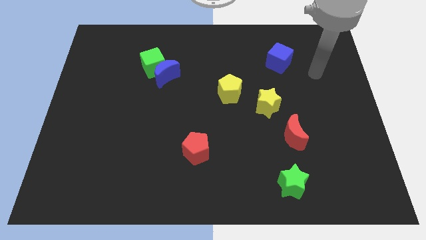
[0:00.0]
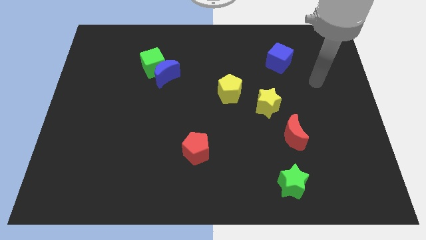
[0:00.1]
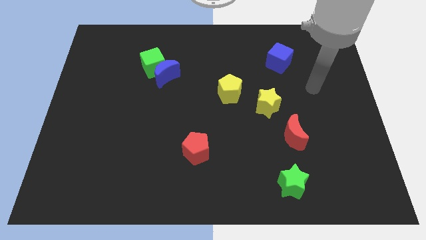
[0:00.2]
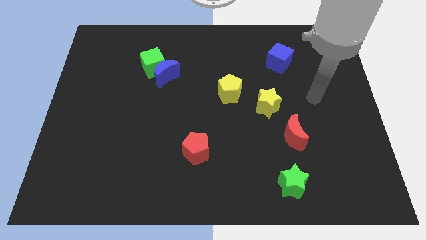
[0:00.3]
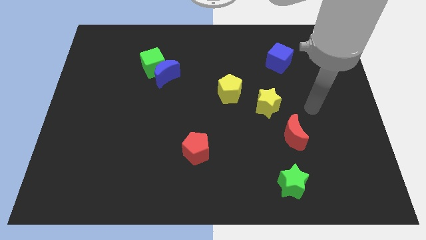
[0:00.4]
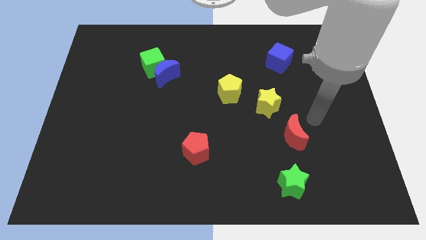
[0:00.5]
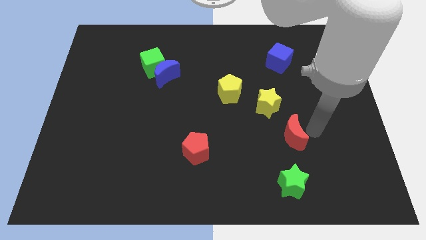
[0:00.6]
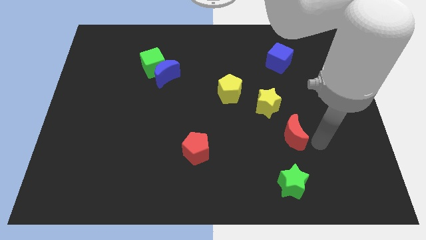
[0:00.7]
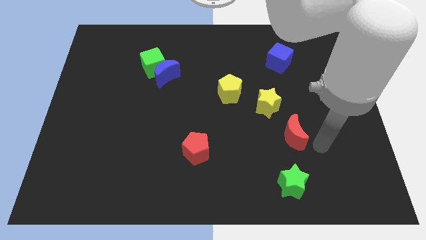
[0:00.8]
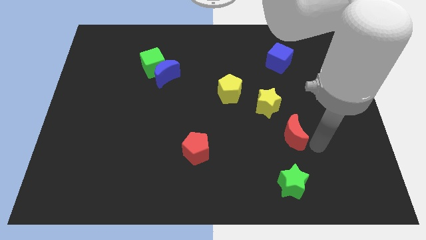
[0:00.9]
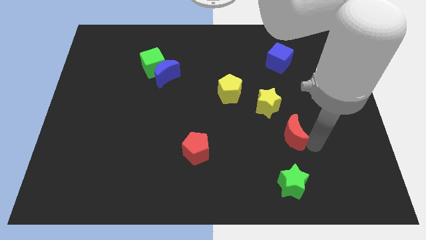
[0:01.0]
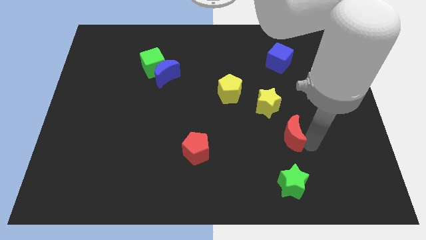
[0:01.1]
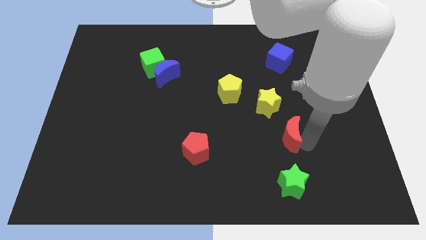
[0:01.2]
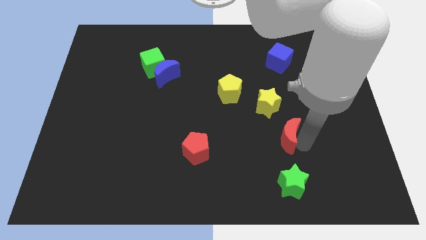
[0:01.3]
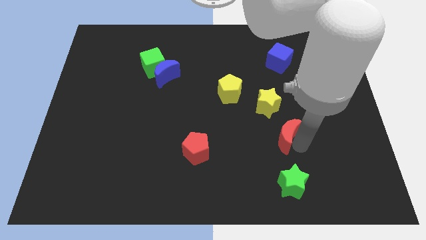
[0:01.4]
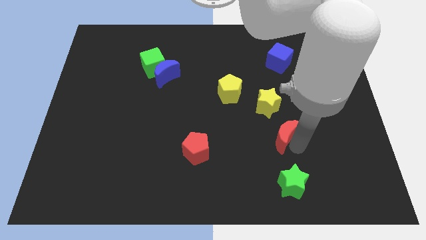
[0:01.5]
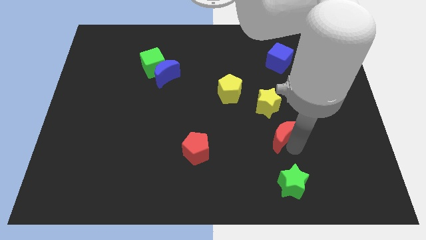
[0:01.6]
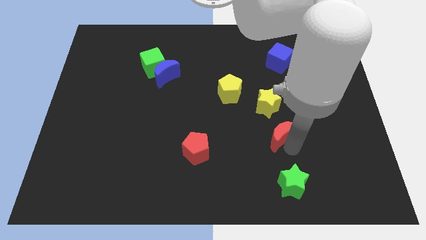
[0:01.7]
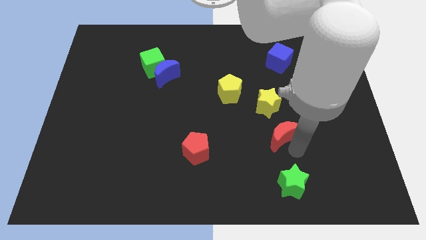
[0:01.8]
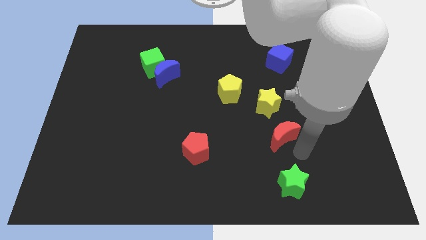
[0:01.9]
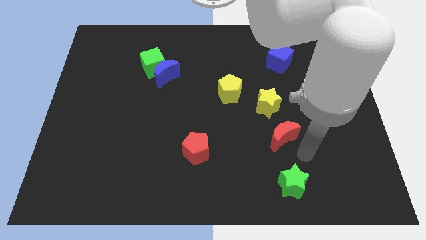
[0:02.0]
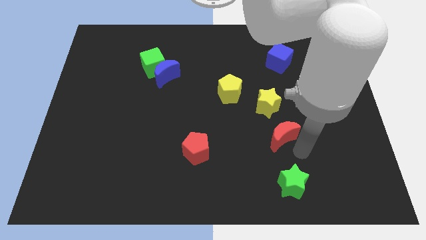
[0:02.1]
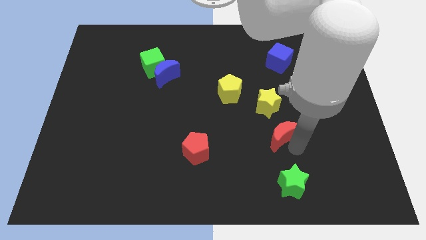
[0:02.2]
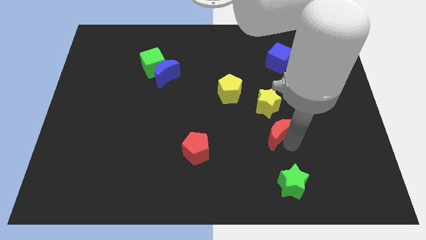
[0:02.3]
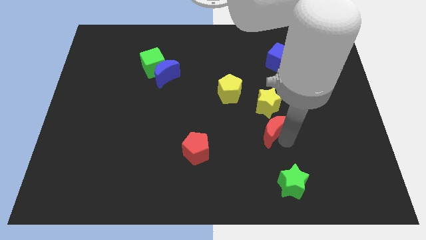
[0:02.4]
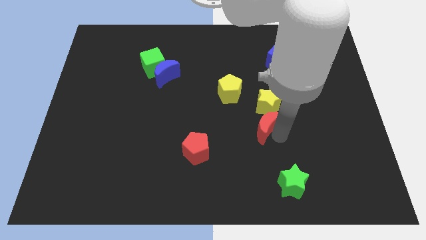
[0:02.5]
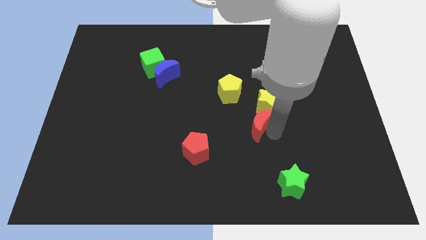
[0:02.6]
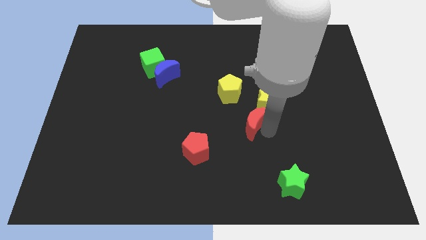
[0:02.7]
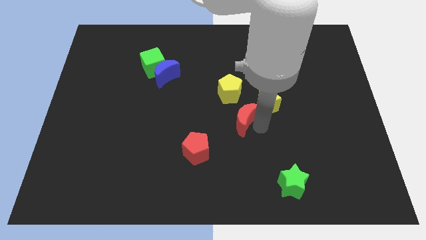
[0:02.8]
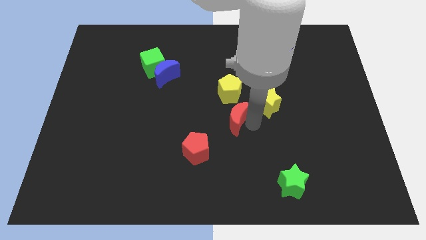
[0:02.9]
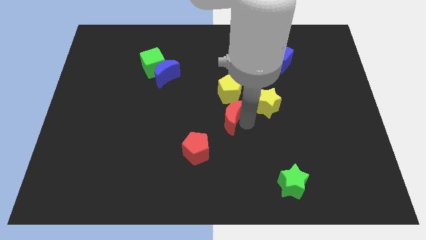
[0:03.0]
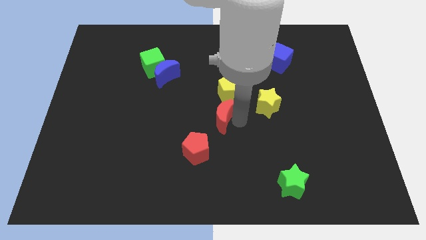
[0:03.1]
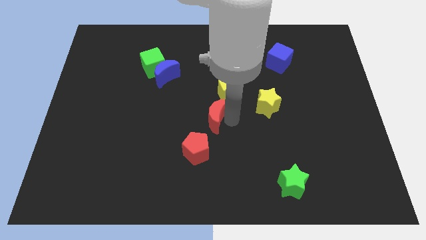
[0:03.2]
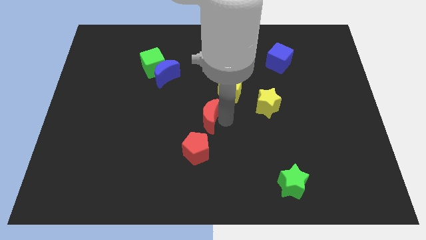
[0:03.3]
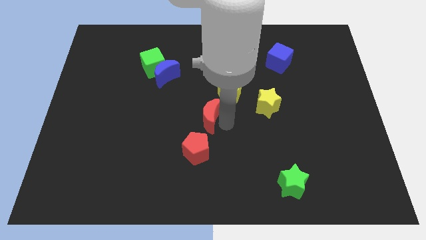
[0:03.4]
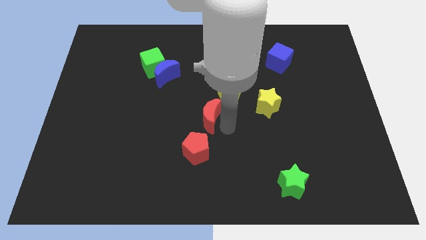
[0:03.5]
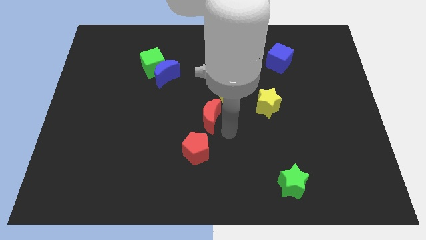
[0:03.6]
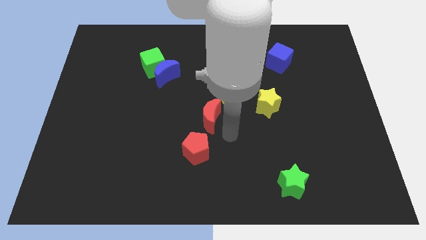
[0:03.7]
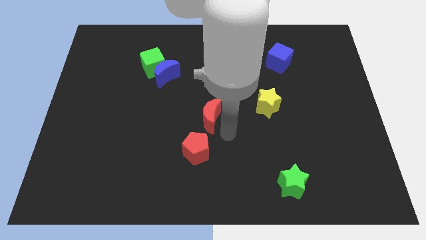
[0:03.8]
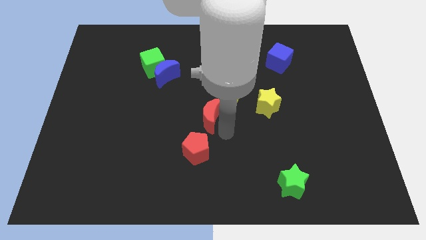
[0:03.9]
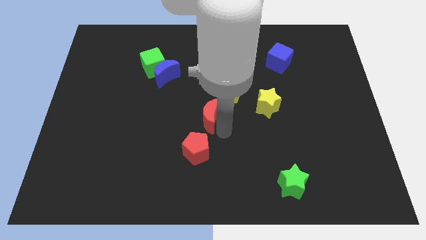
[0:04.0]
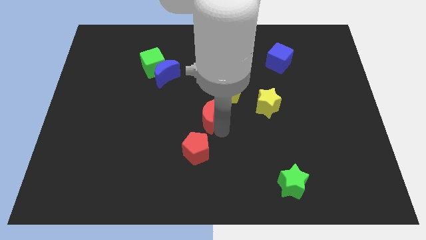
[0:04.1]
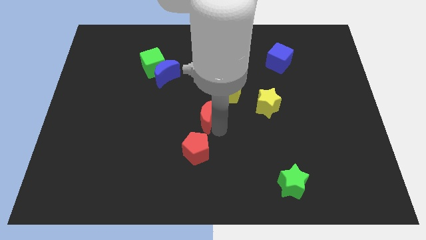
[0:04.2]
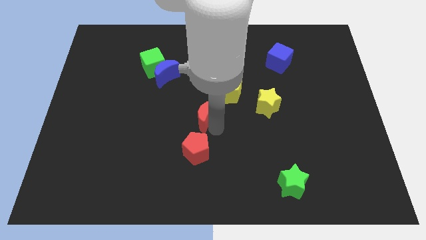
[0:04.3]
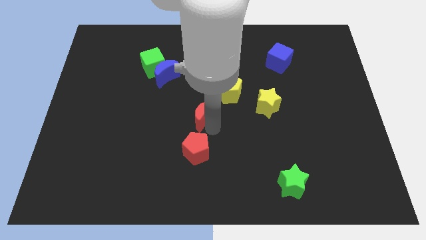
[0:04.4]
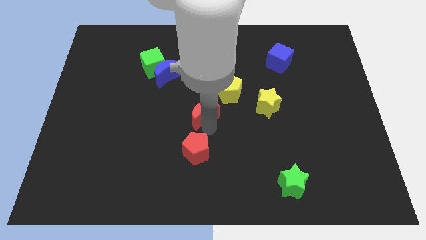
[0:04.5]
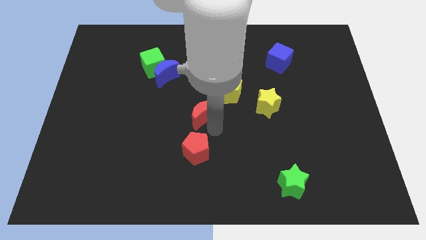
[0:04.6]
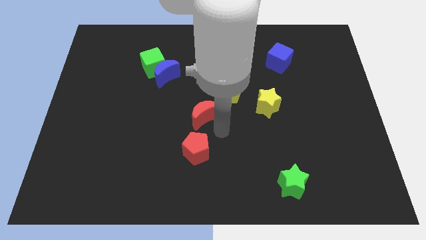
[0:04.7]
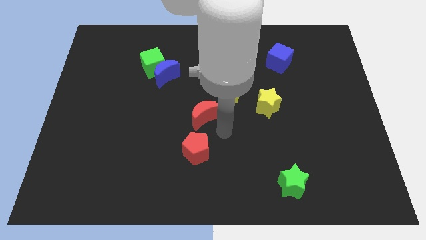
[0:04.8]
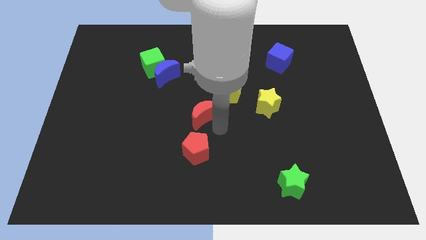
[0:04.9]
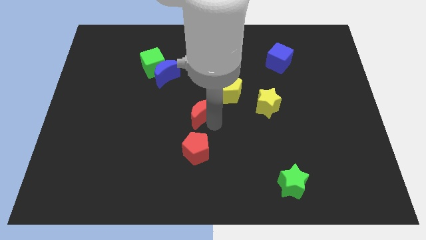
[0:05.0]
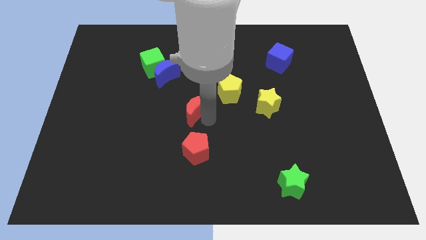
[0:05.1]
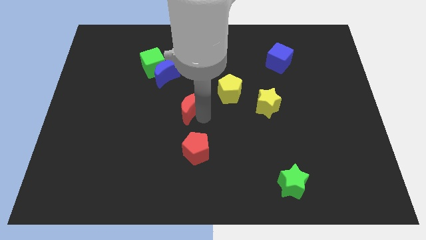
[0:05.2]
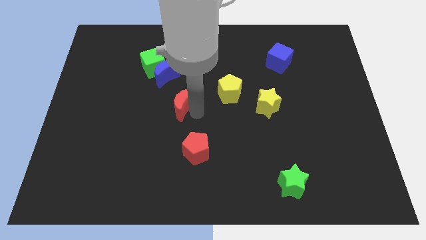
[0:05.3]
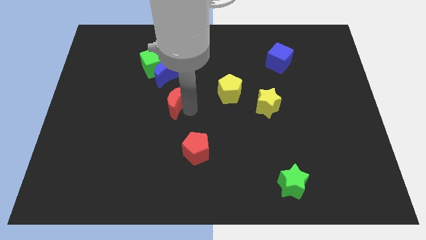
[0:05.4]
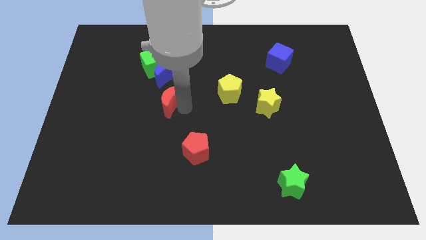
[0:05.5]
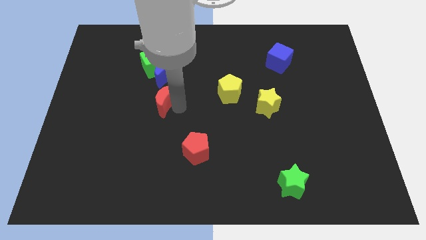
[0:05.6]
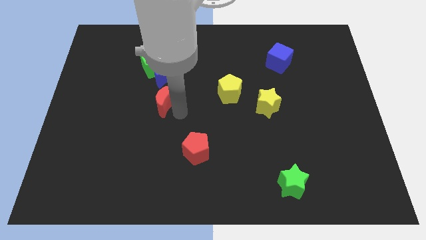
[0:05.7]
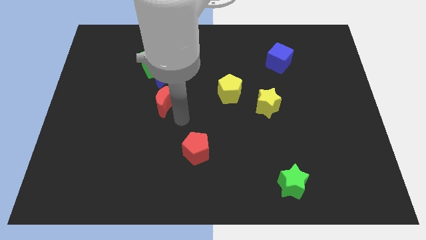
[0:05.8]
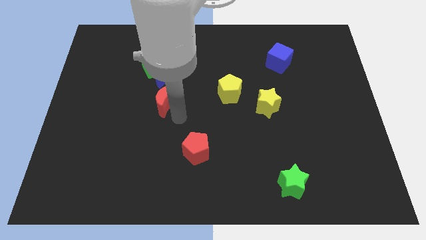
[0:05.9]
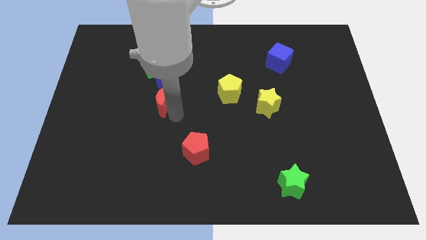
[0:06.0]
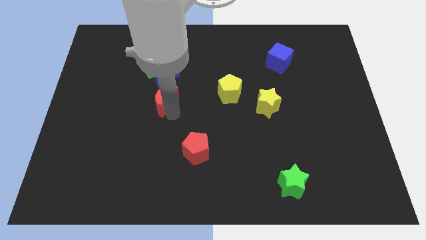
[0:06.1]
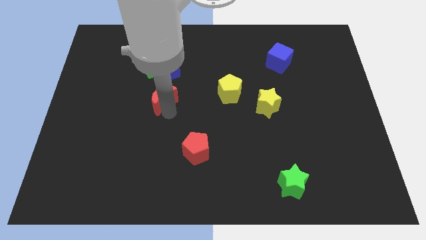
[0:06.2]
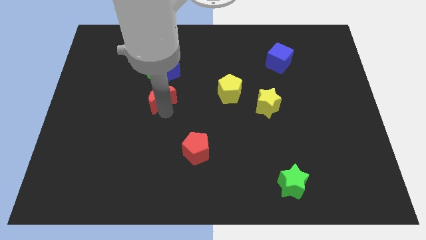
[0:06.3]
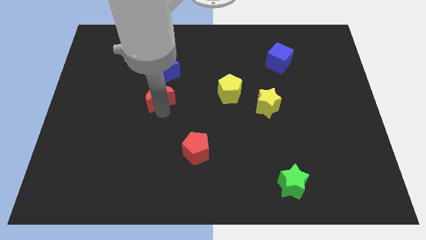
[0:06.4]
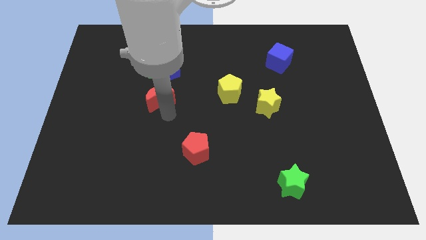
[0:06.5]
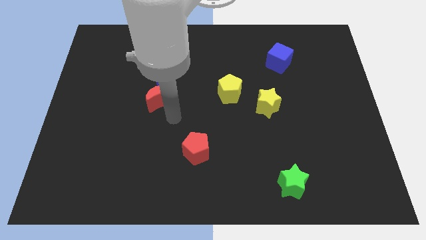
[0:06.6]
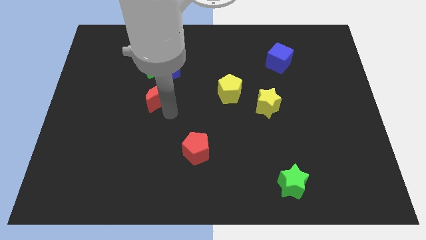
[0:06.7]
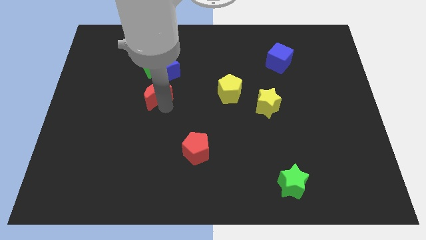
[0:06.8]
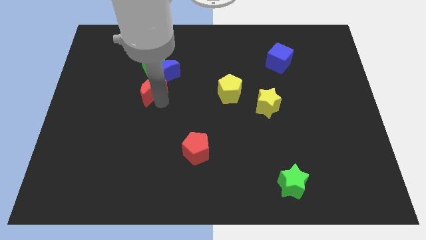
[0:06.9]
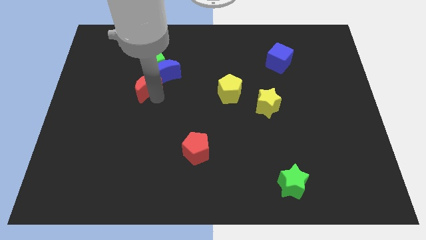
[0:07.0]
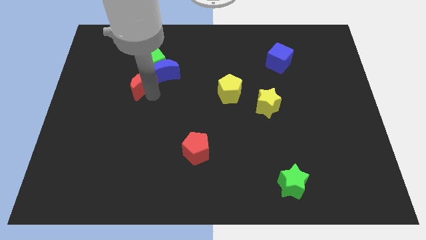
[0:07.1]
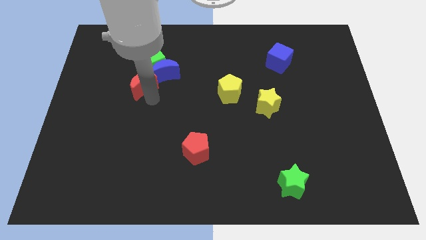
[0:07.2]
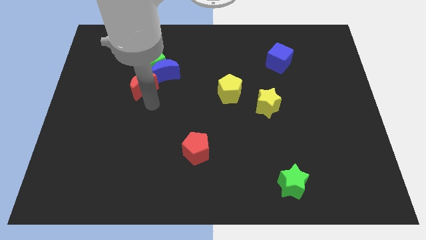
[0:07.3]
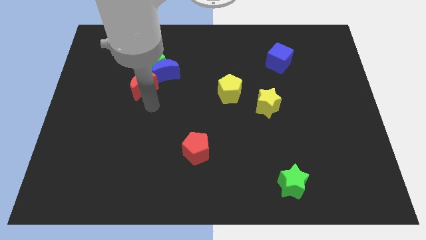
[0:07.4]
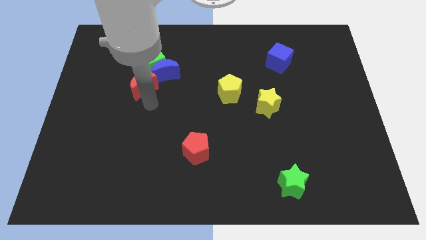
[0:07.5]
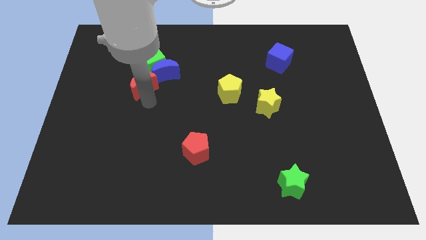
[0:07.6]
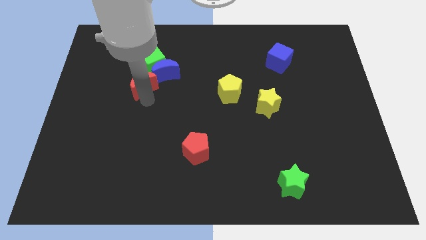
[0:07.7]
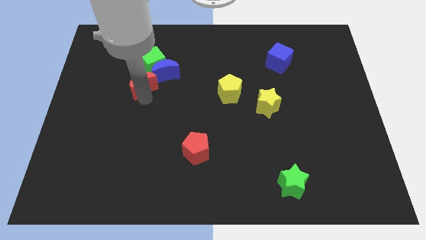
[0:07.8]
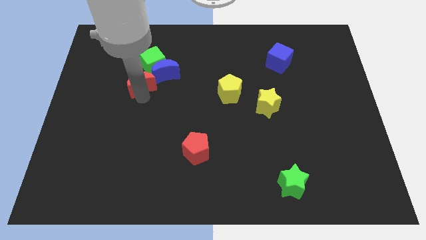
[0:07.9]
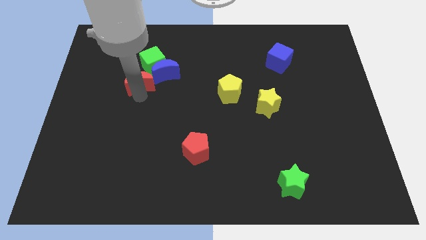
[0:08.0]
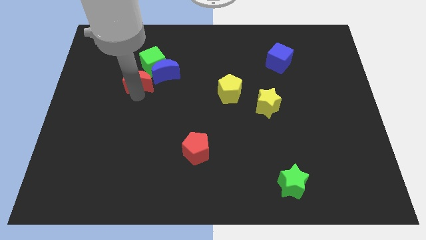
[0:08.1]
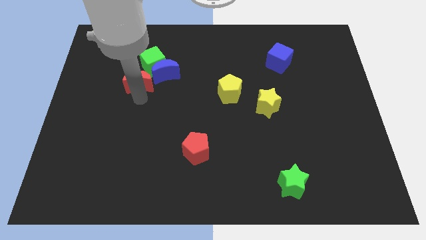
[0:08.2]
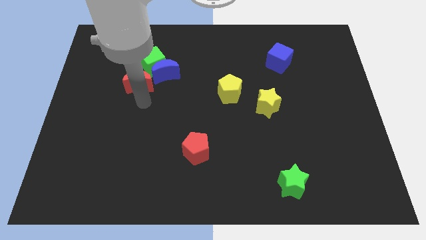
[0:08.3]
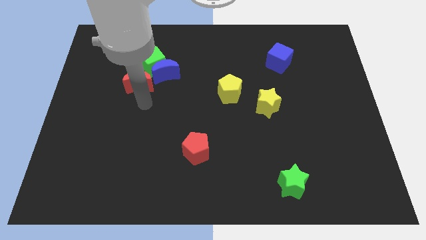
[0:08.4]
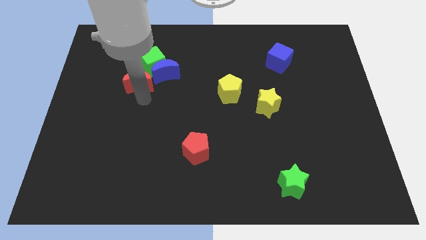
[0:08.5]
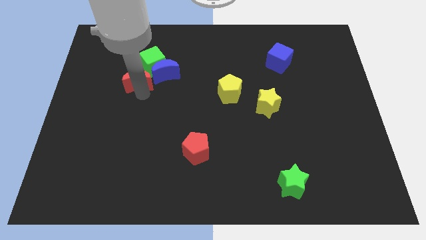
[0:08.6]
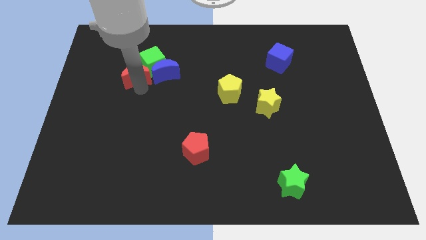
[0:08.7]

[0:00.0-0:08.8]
put the red moon to the left side of the green cube
